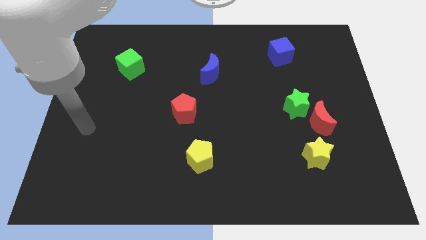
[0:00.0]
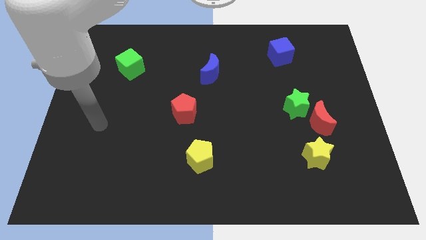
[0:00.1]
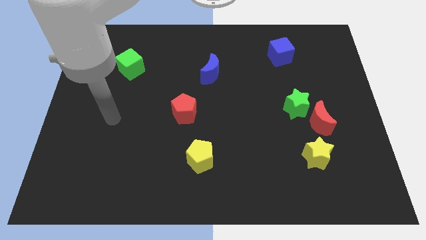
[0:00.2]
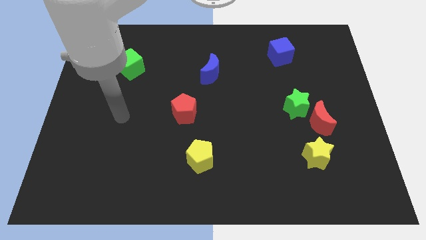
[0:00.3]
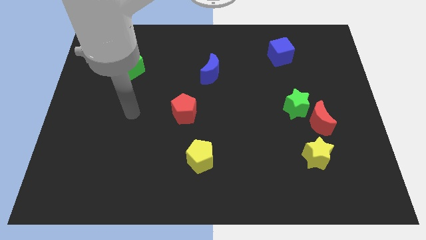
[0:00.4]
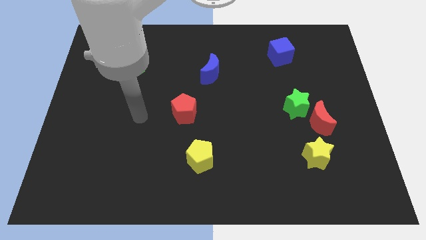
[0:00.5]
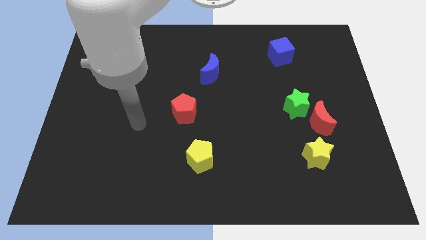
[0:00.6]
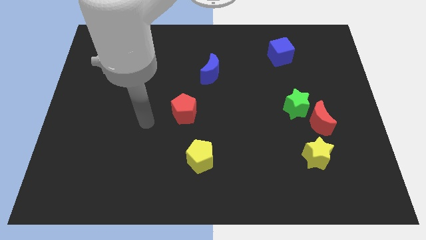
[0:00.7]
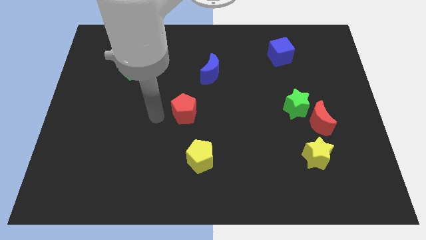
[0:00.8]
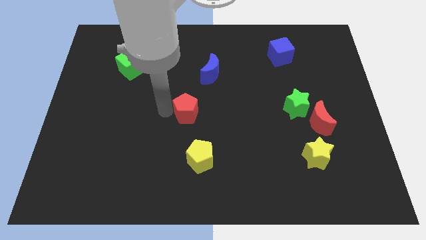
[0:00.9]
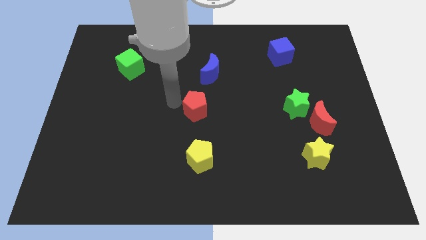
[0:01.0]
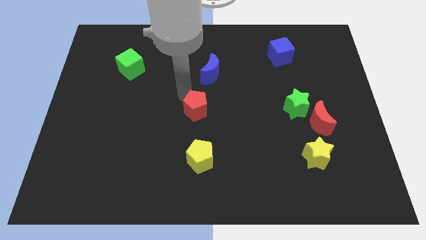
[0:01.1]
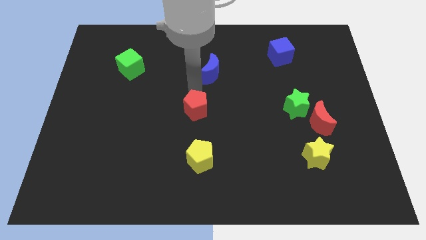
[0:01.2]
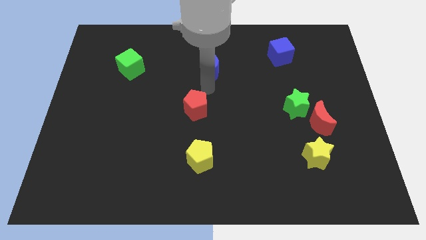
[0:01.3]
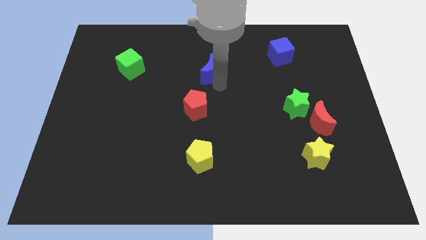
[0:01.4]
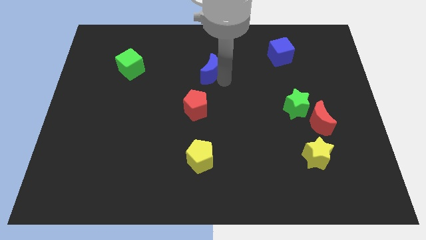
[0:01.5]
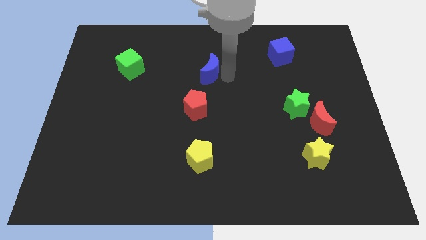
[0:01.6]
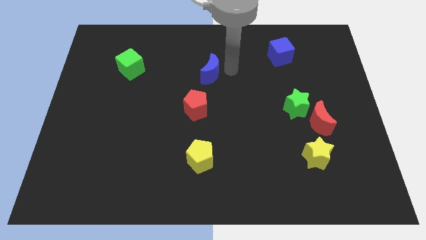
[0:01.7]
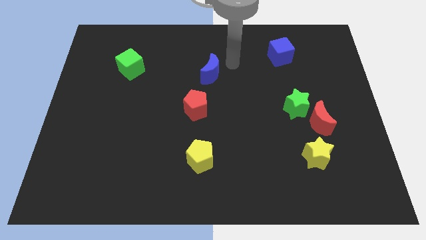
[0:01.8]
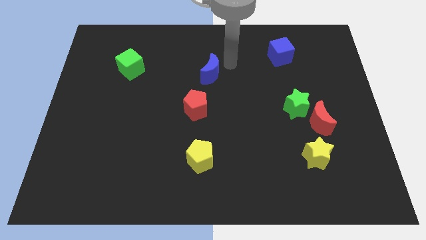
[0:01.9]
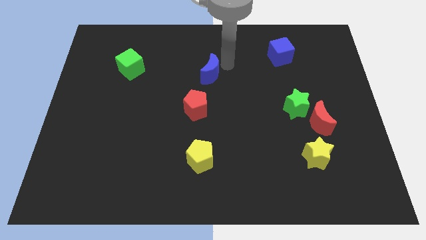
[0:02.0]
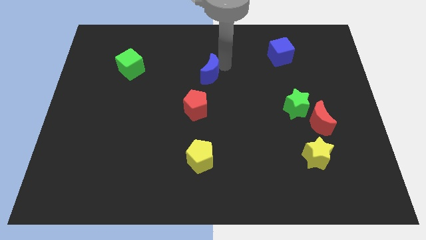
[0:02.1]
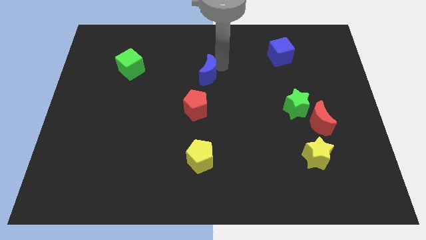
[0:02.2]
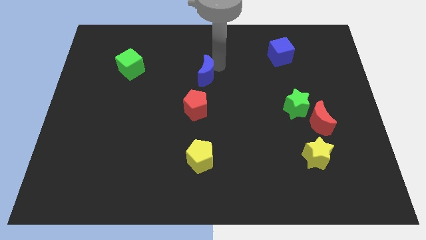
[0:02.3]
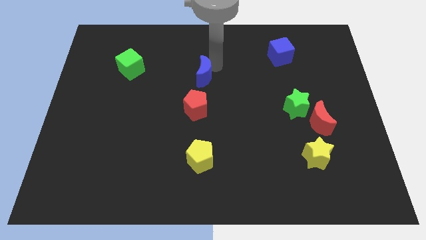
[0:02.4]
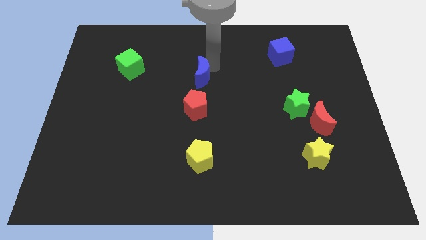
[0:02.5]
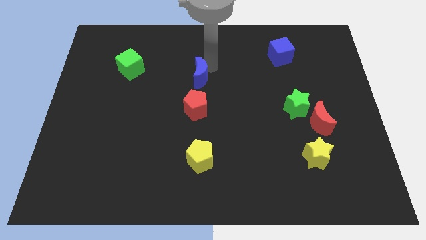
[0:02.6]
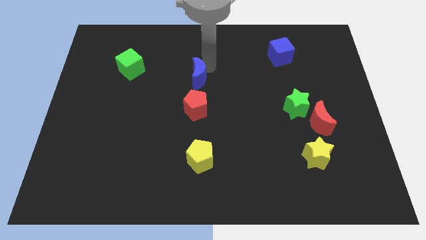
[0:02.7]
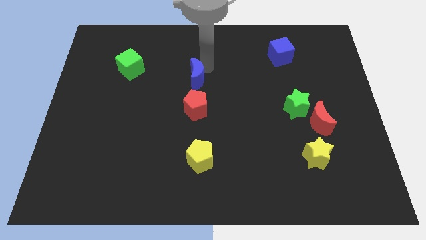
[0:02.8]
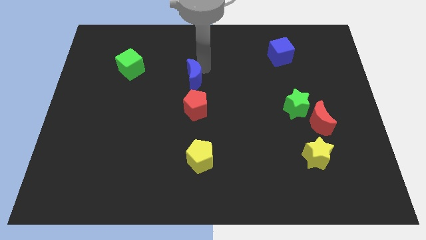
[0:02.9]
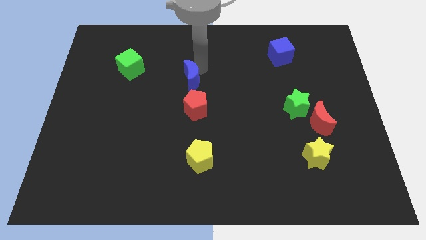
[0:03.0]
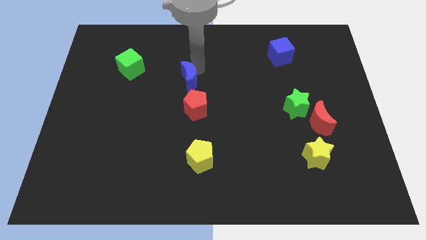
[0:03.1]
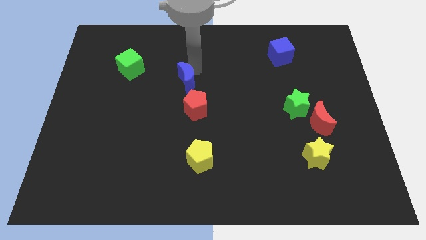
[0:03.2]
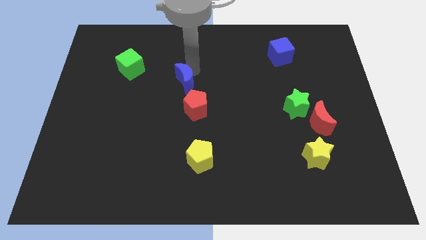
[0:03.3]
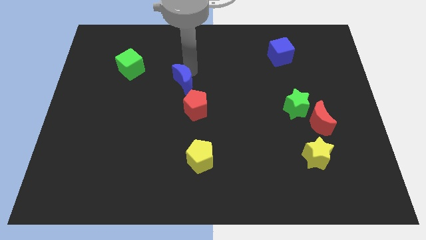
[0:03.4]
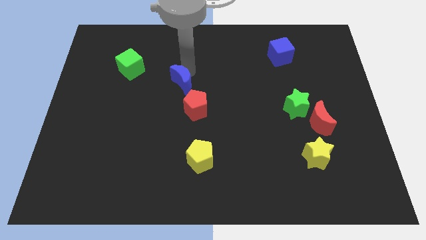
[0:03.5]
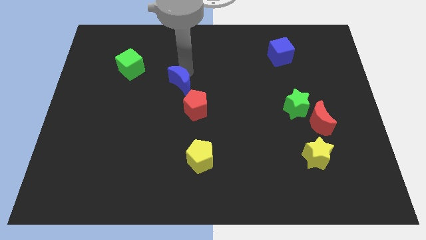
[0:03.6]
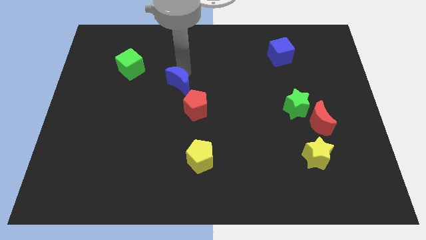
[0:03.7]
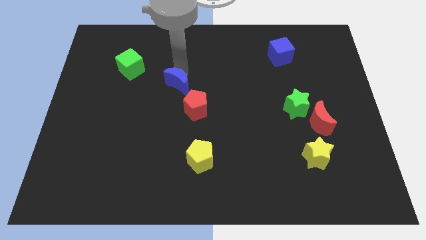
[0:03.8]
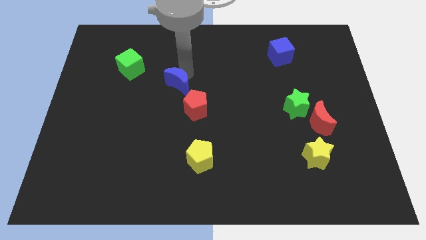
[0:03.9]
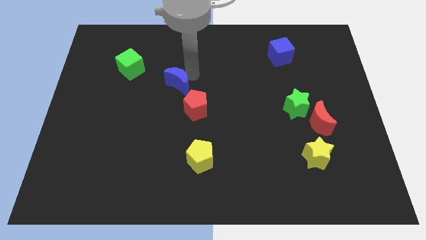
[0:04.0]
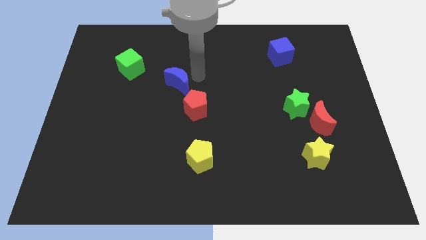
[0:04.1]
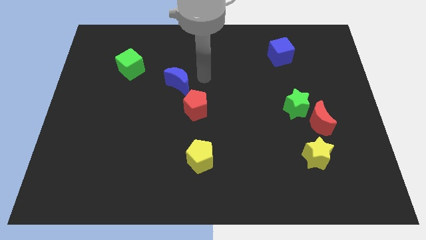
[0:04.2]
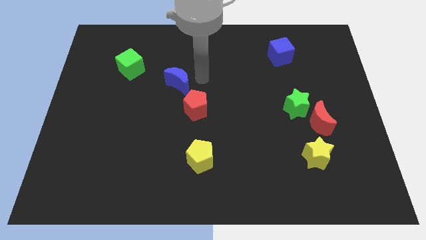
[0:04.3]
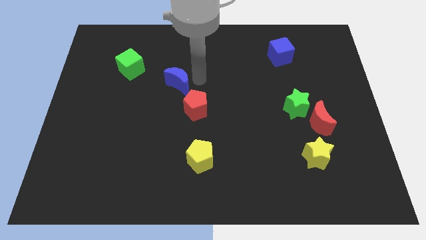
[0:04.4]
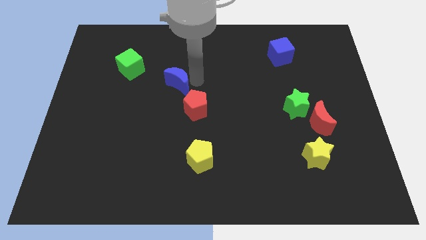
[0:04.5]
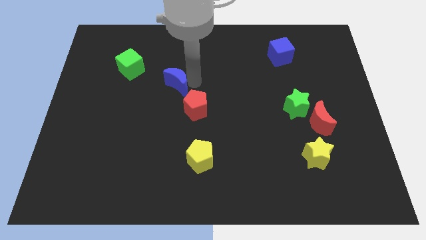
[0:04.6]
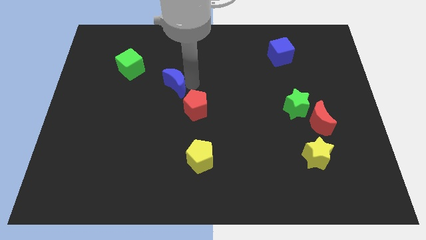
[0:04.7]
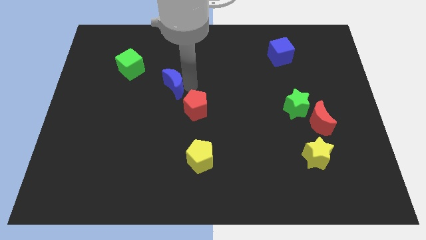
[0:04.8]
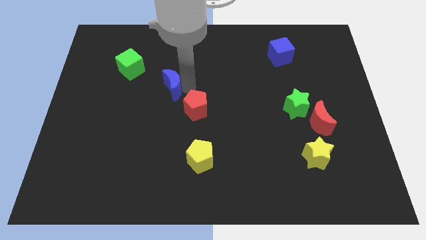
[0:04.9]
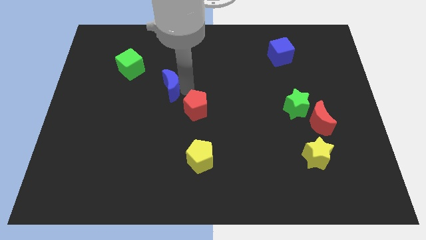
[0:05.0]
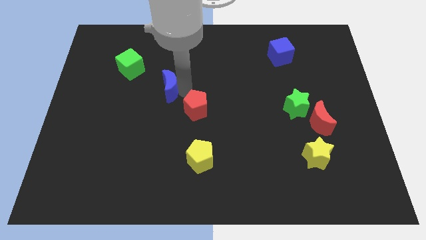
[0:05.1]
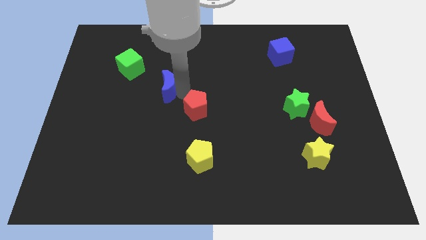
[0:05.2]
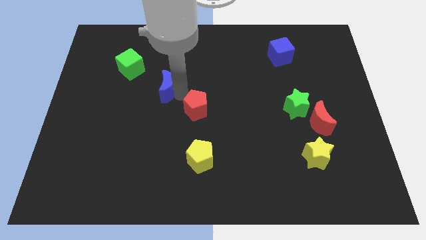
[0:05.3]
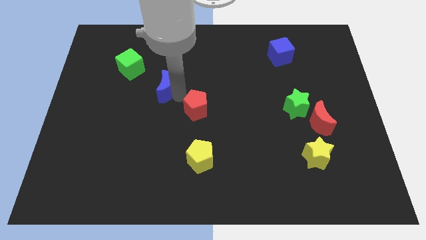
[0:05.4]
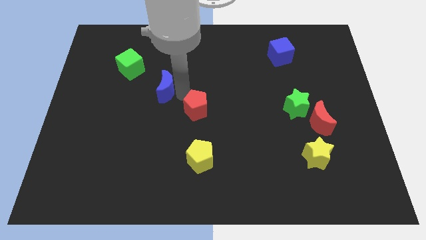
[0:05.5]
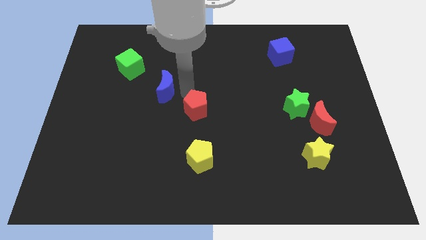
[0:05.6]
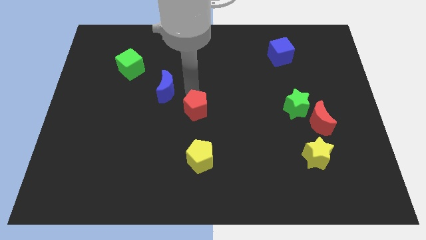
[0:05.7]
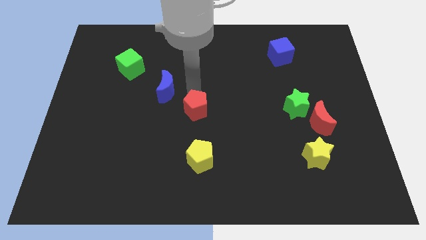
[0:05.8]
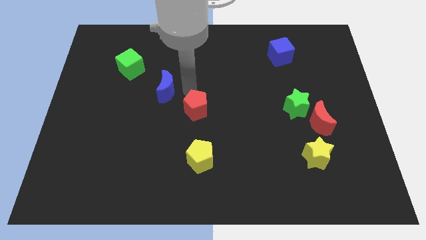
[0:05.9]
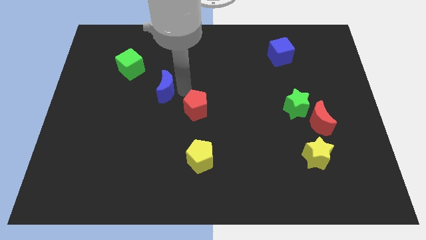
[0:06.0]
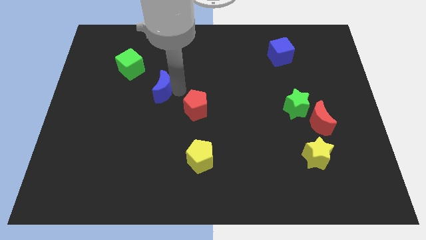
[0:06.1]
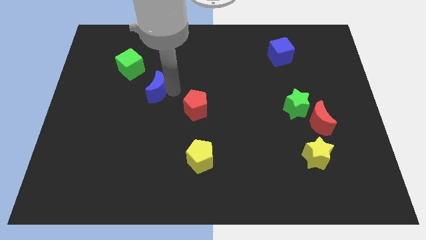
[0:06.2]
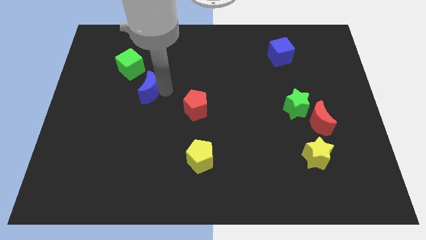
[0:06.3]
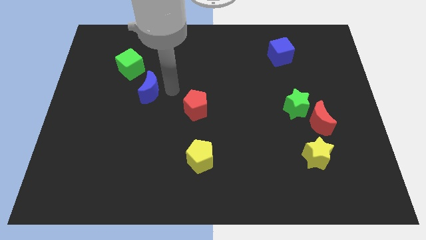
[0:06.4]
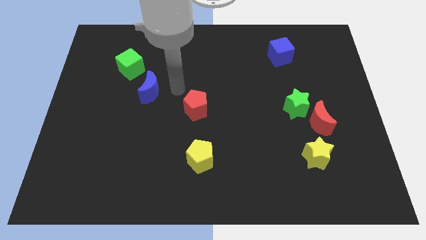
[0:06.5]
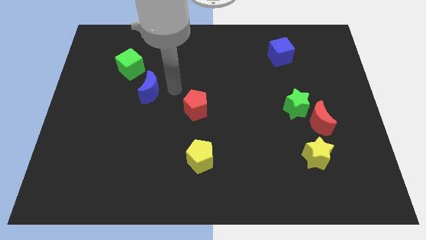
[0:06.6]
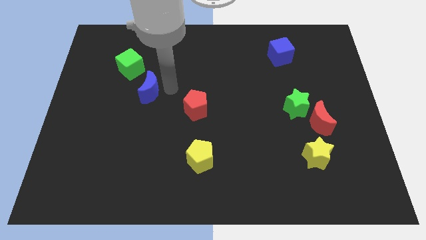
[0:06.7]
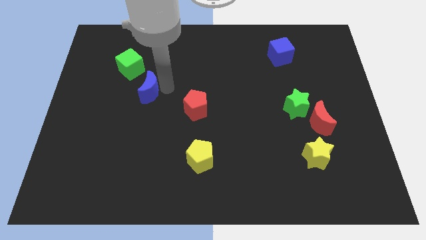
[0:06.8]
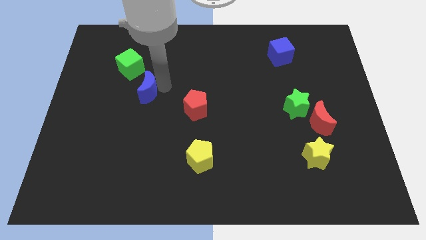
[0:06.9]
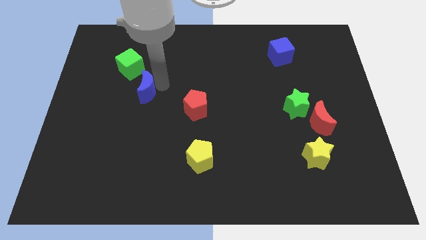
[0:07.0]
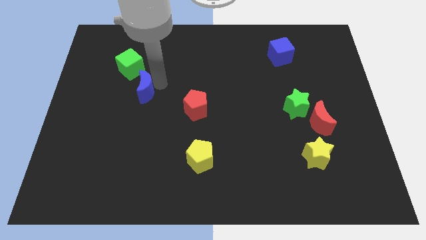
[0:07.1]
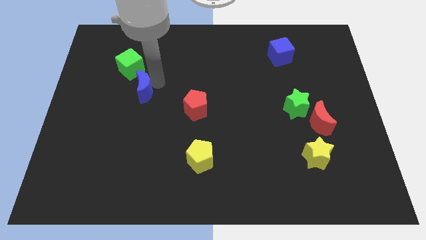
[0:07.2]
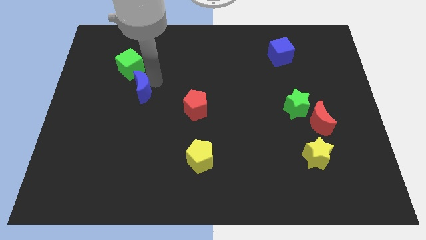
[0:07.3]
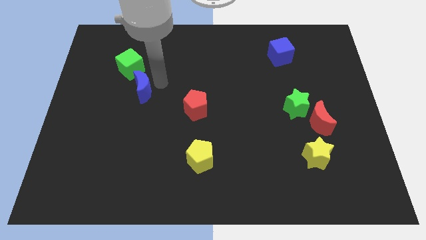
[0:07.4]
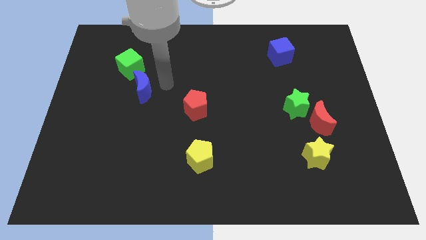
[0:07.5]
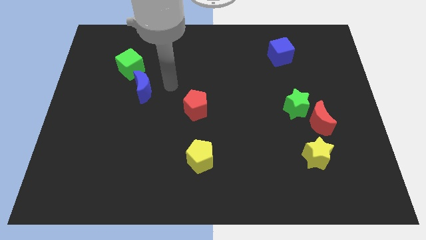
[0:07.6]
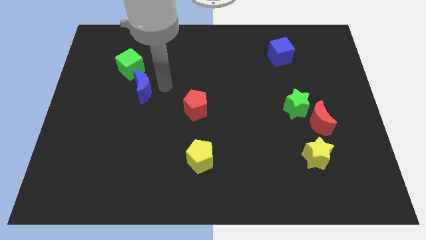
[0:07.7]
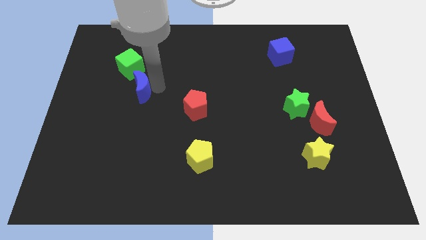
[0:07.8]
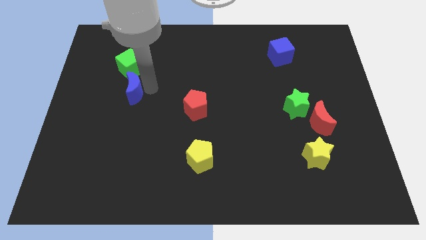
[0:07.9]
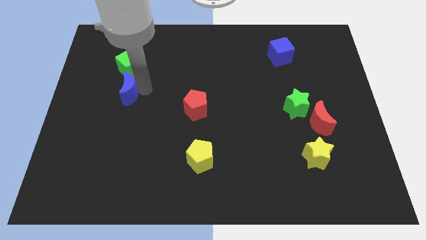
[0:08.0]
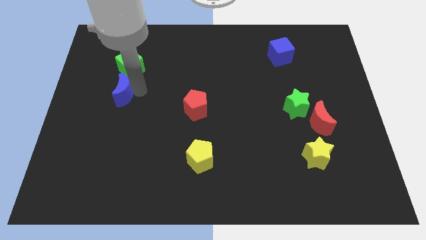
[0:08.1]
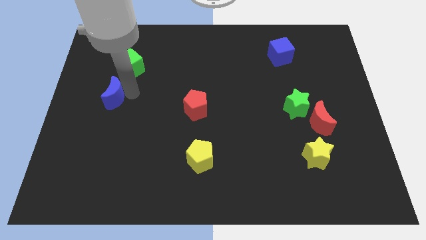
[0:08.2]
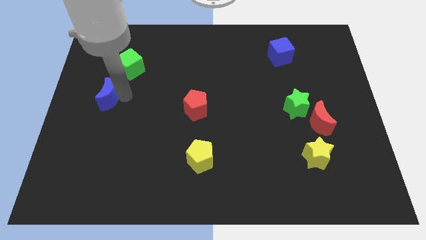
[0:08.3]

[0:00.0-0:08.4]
push the blue moon to the left side of the board
